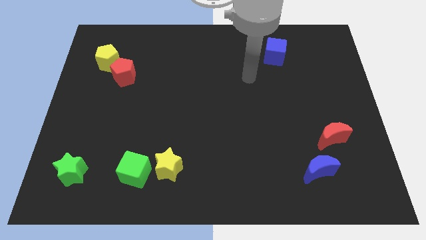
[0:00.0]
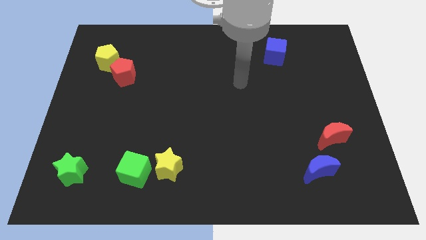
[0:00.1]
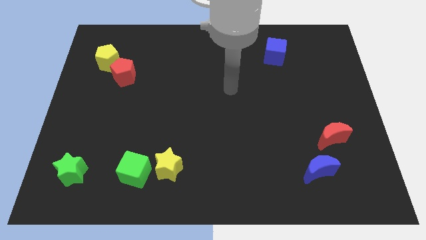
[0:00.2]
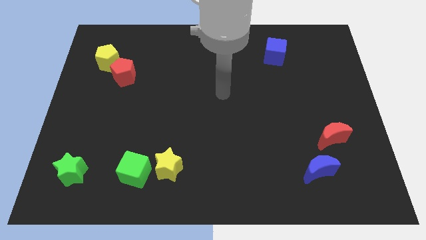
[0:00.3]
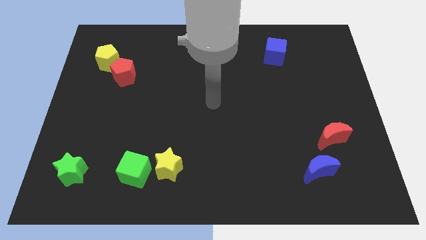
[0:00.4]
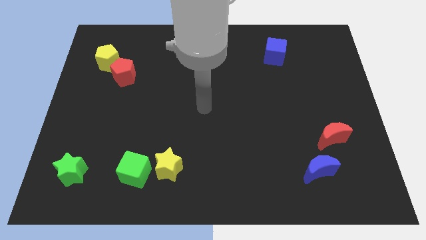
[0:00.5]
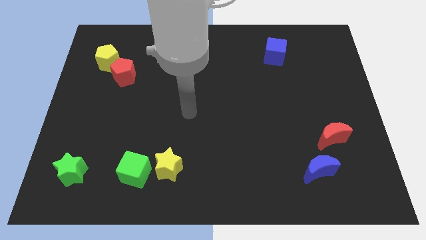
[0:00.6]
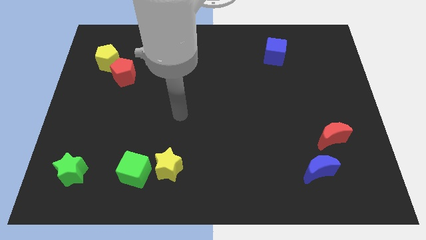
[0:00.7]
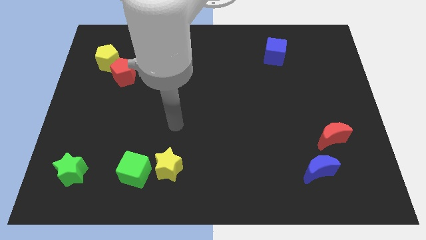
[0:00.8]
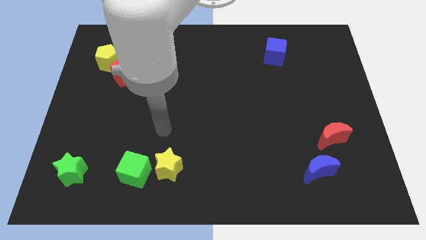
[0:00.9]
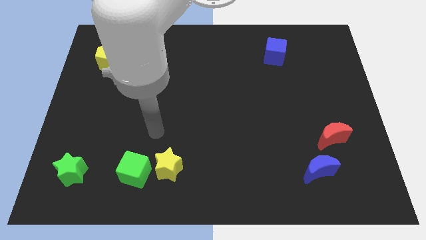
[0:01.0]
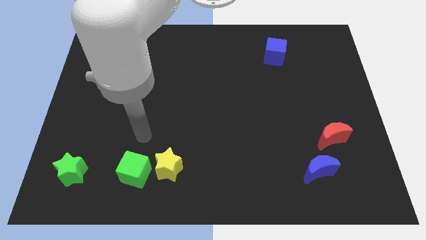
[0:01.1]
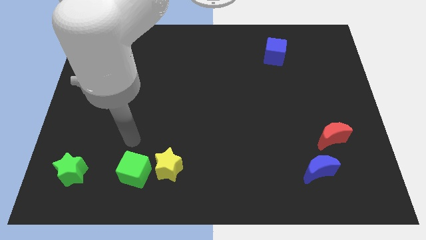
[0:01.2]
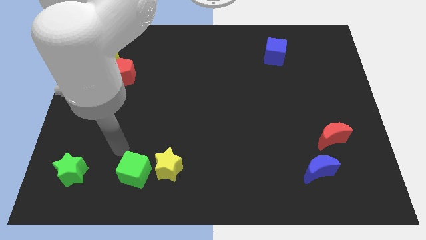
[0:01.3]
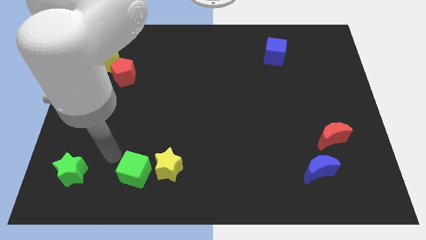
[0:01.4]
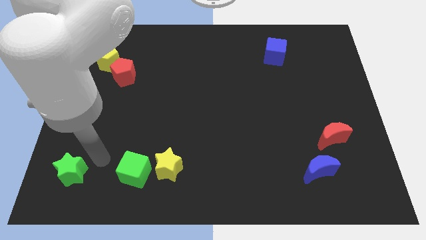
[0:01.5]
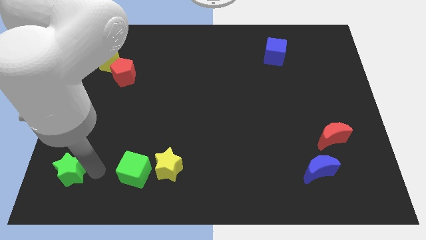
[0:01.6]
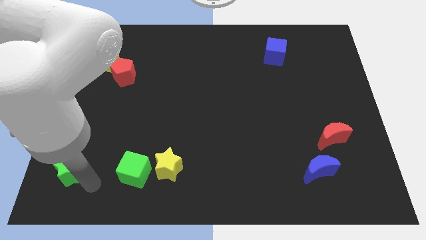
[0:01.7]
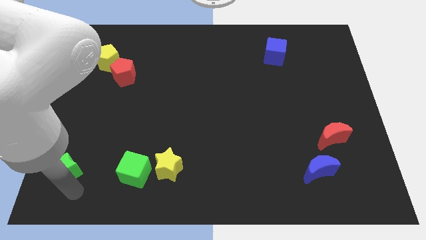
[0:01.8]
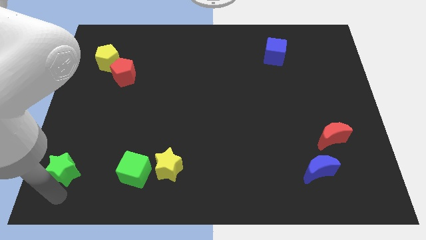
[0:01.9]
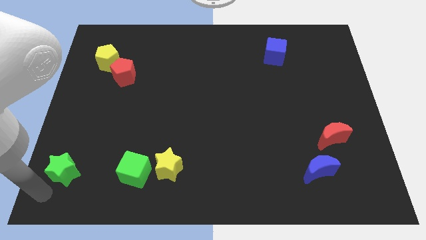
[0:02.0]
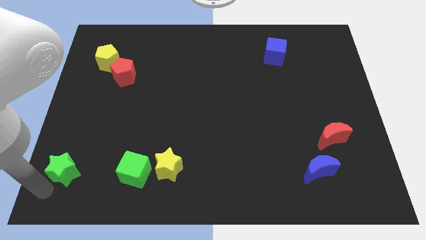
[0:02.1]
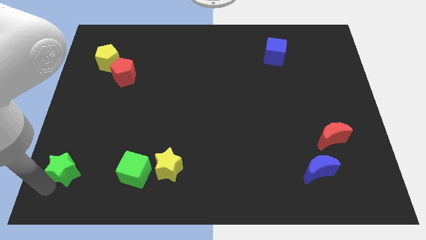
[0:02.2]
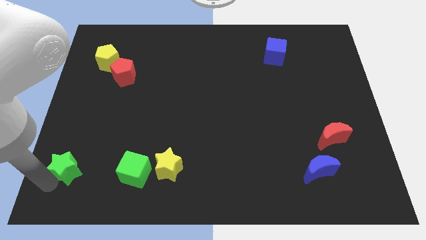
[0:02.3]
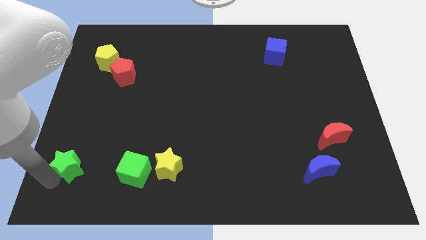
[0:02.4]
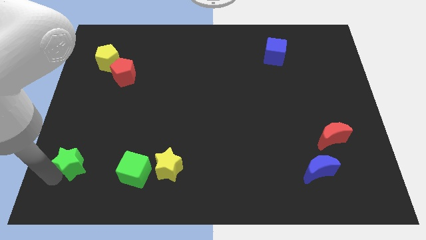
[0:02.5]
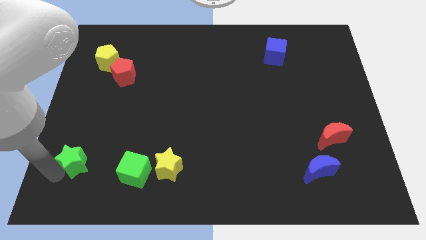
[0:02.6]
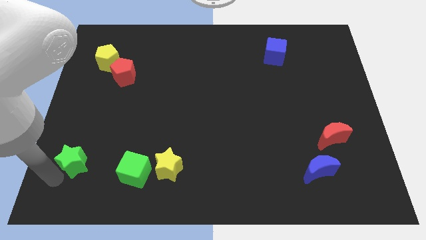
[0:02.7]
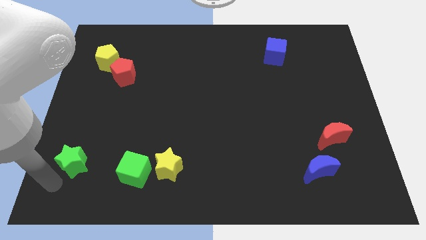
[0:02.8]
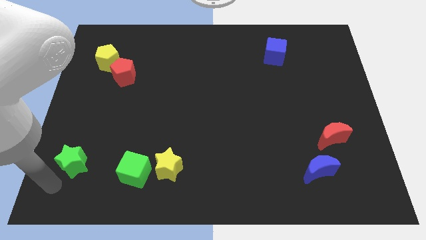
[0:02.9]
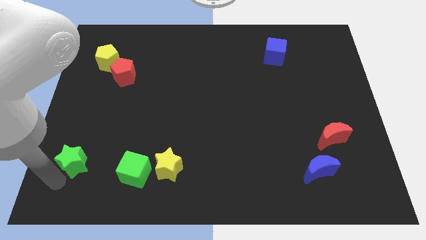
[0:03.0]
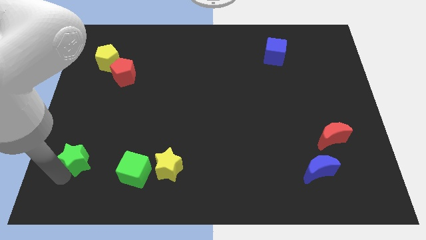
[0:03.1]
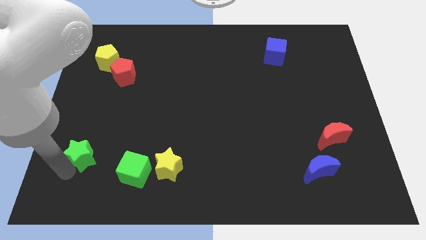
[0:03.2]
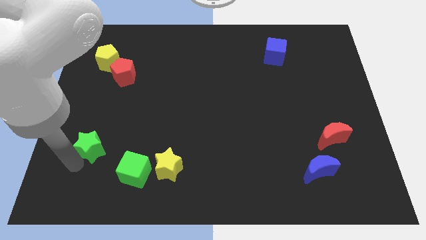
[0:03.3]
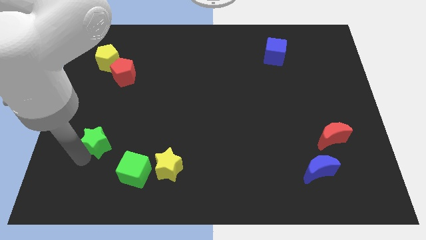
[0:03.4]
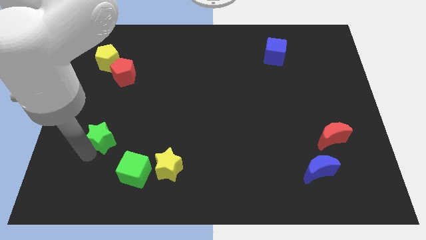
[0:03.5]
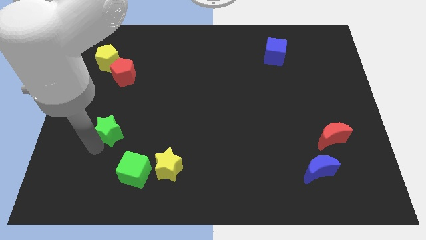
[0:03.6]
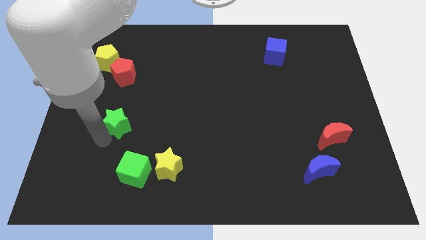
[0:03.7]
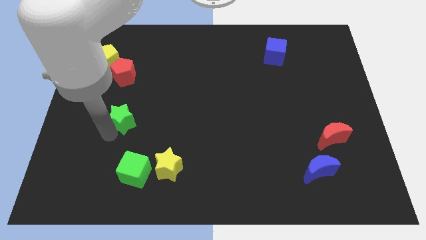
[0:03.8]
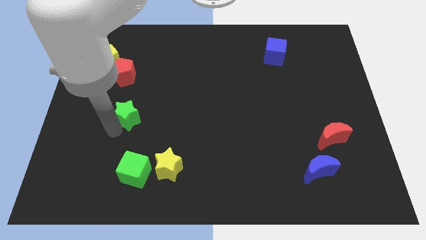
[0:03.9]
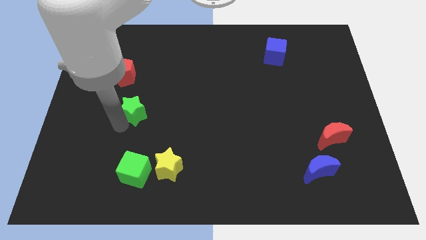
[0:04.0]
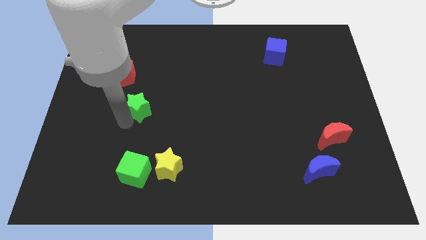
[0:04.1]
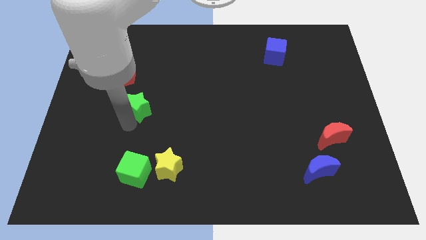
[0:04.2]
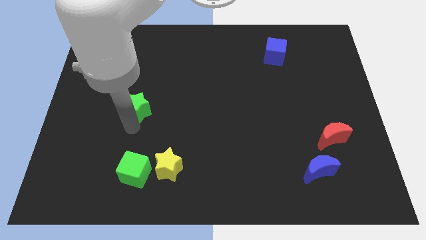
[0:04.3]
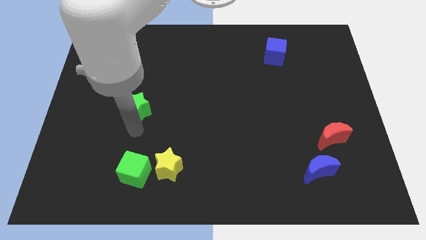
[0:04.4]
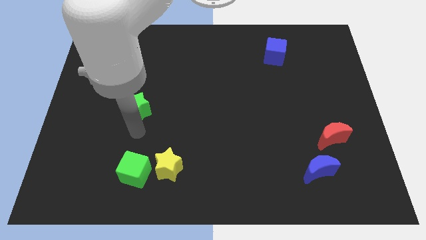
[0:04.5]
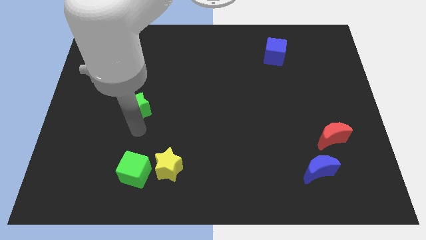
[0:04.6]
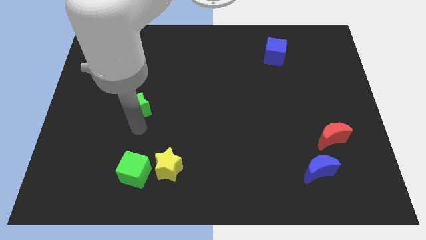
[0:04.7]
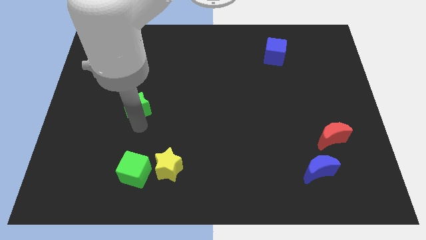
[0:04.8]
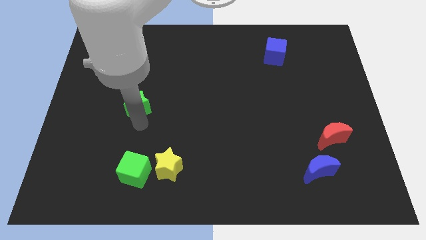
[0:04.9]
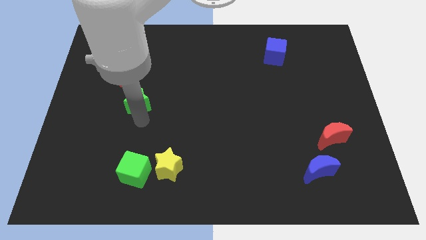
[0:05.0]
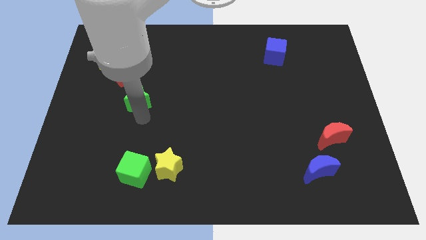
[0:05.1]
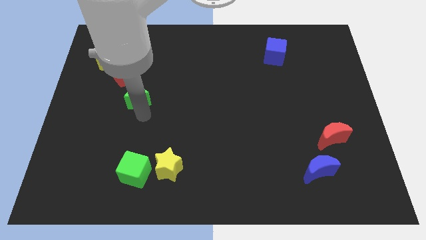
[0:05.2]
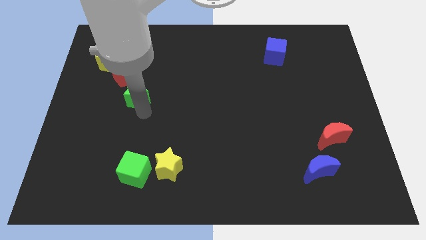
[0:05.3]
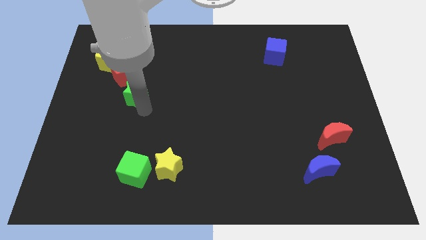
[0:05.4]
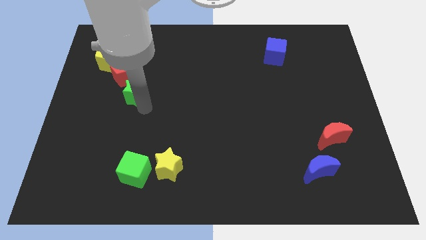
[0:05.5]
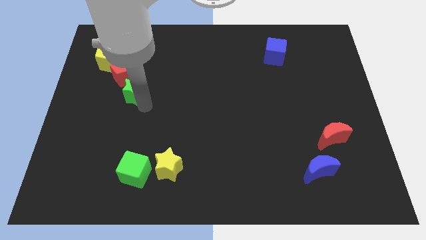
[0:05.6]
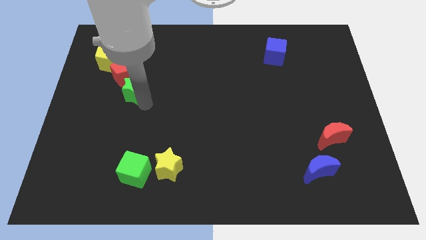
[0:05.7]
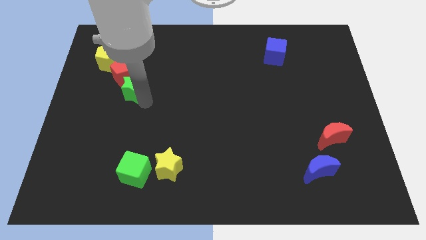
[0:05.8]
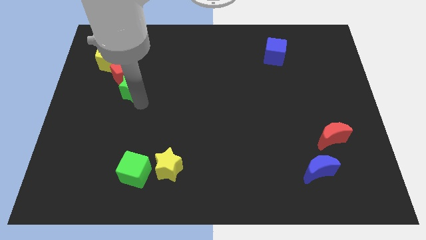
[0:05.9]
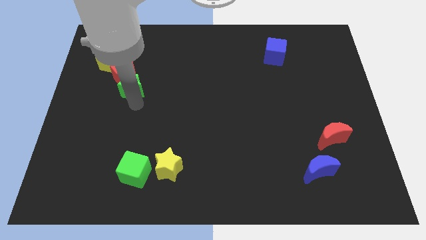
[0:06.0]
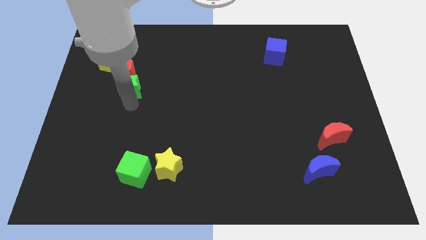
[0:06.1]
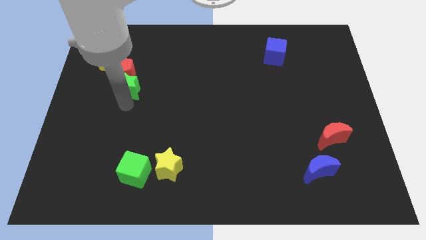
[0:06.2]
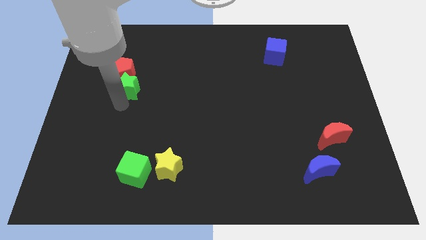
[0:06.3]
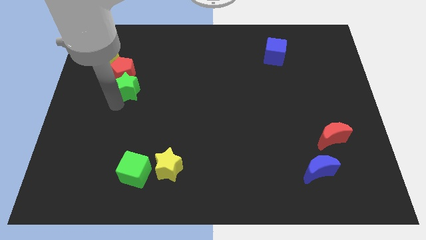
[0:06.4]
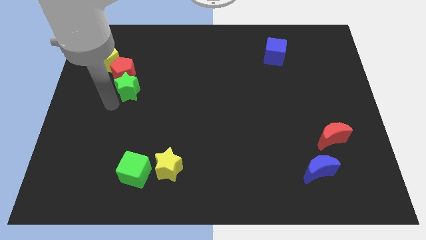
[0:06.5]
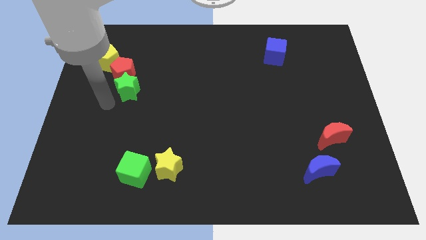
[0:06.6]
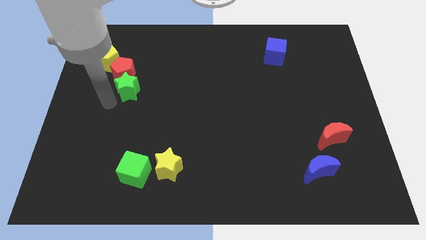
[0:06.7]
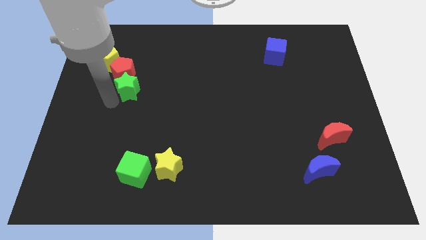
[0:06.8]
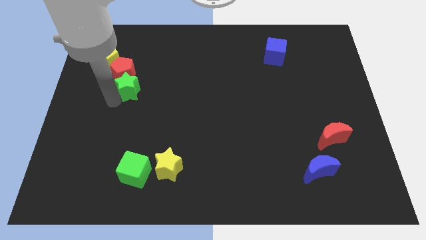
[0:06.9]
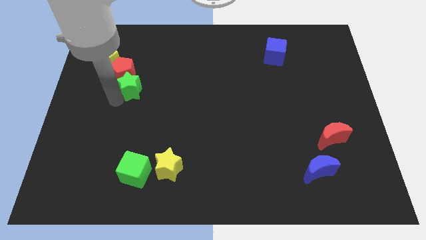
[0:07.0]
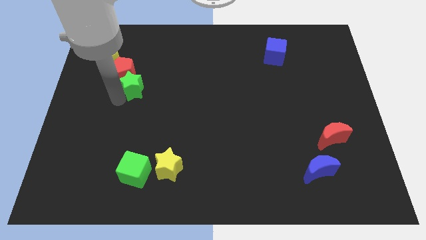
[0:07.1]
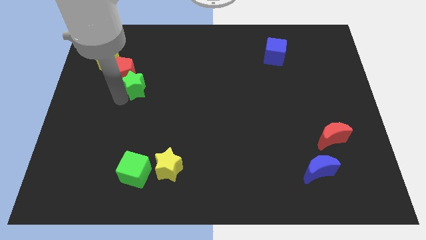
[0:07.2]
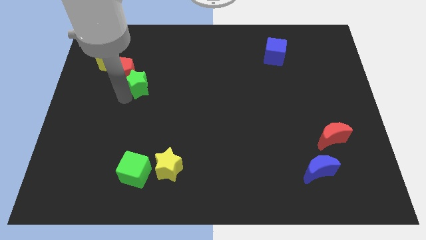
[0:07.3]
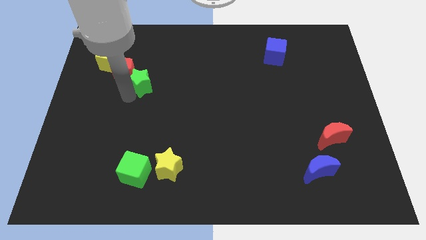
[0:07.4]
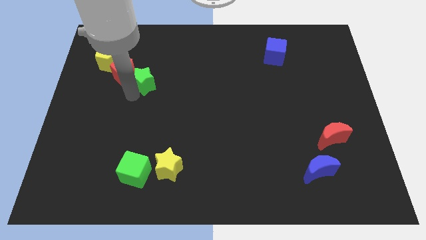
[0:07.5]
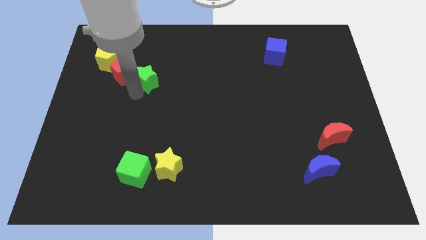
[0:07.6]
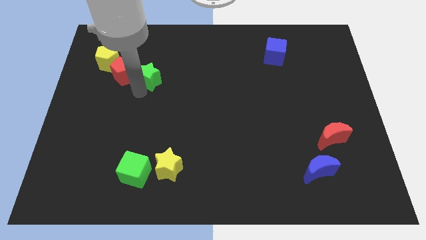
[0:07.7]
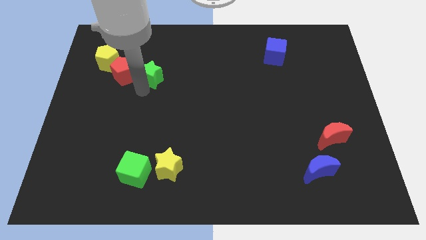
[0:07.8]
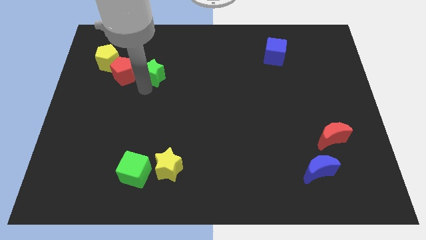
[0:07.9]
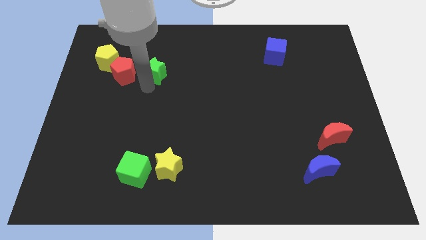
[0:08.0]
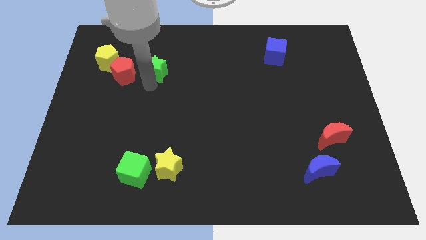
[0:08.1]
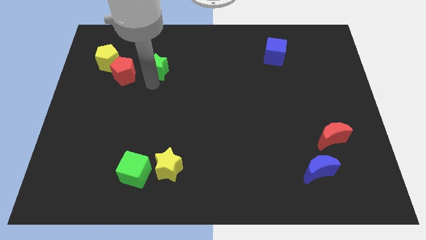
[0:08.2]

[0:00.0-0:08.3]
put the green star to the top right of the red pentagon
